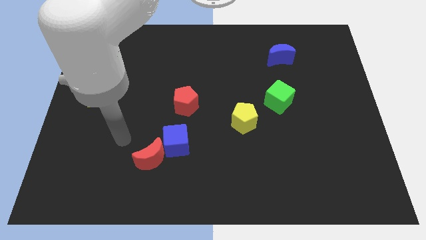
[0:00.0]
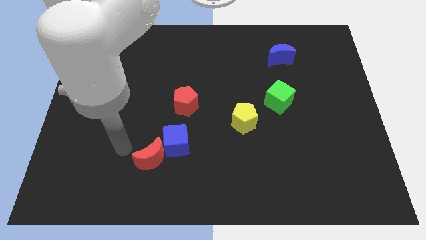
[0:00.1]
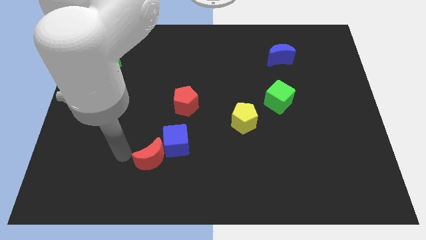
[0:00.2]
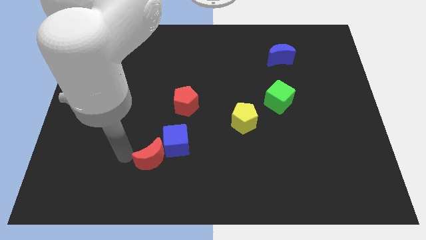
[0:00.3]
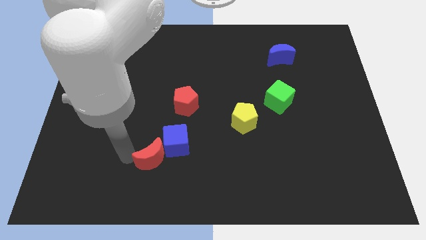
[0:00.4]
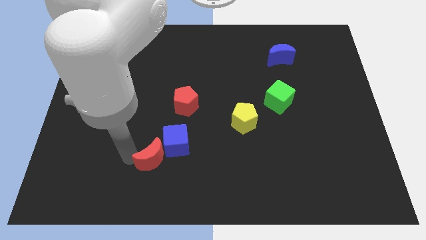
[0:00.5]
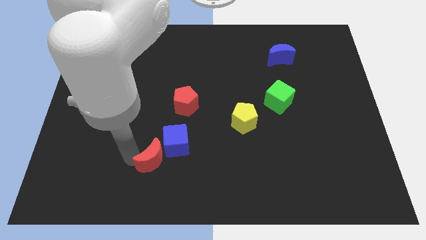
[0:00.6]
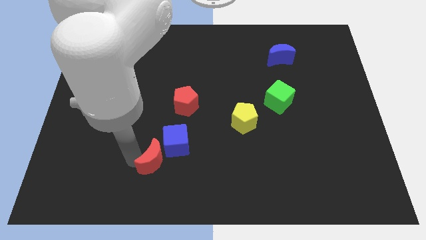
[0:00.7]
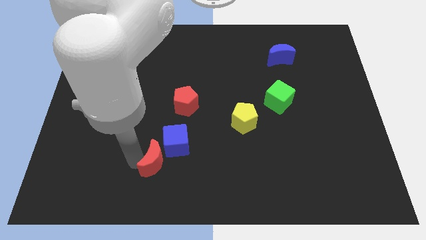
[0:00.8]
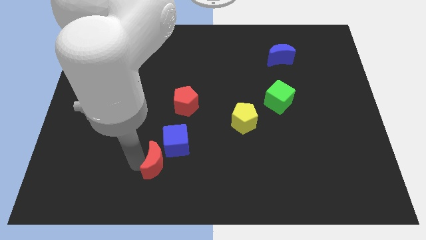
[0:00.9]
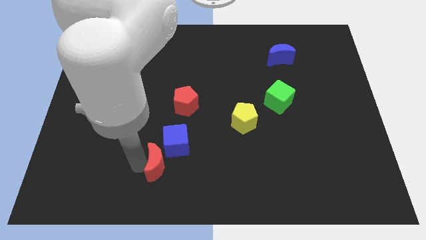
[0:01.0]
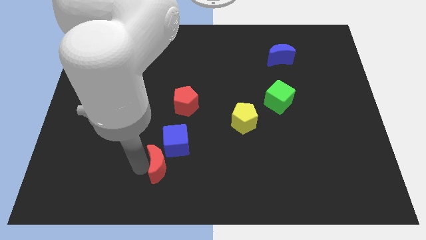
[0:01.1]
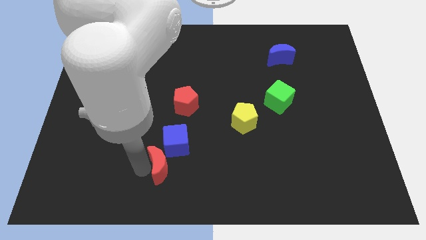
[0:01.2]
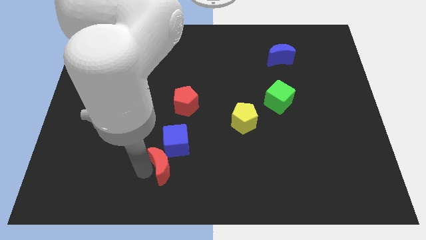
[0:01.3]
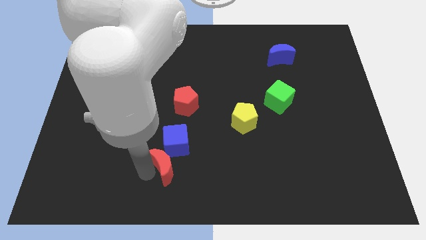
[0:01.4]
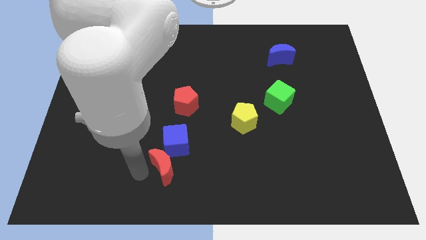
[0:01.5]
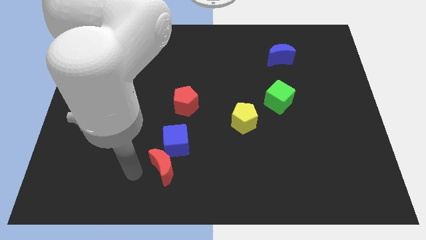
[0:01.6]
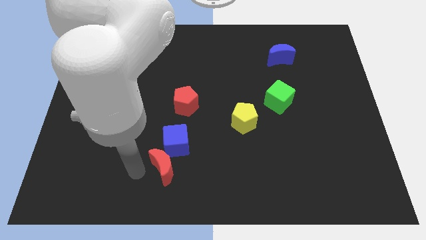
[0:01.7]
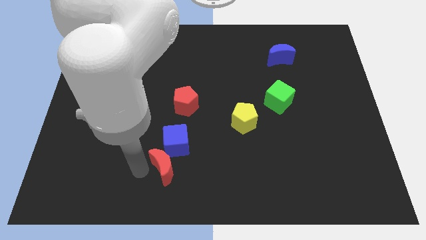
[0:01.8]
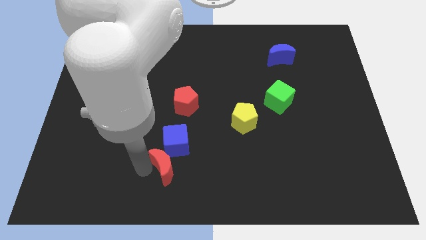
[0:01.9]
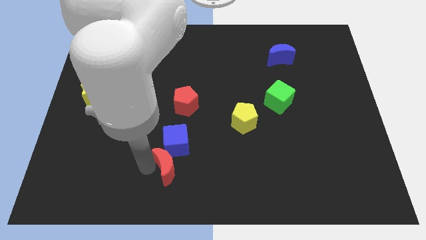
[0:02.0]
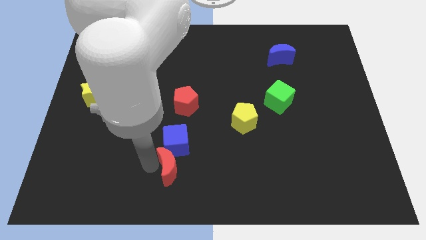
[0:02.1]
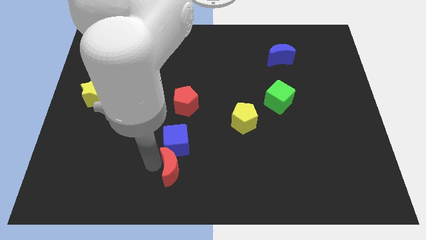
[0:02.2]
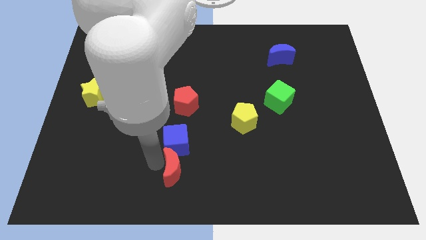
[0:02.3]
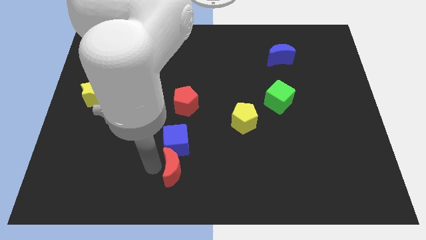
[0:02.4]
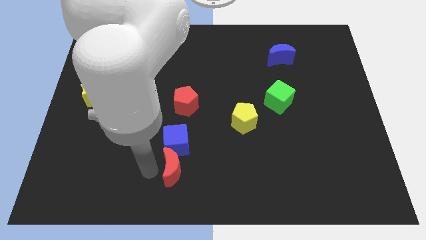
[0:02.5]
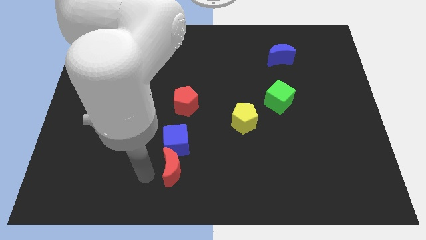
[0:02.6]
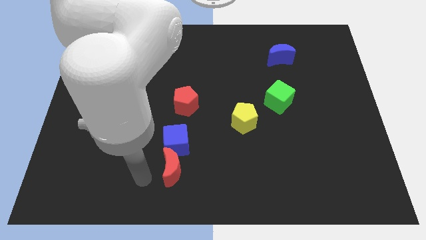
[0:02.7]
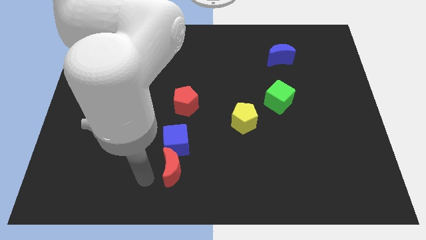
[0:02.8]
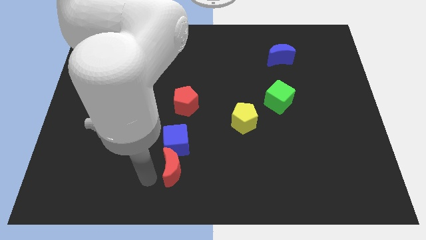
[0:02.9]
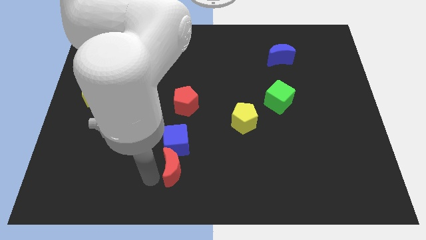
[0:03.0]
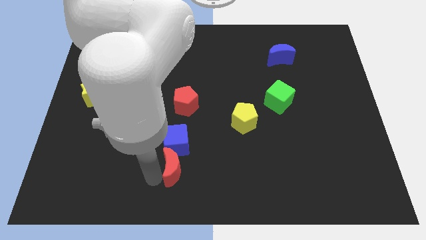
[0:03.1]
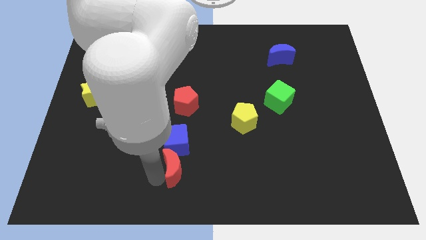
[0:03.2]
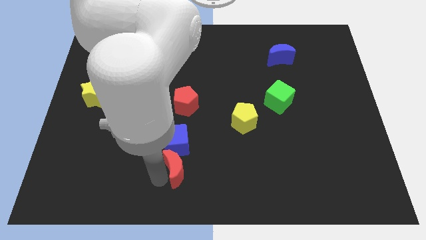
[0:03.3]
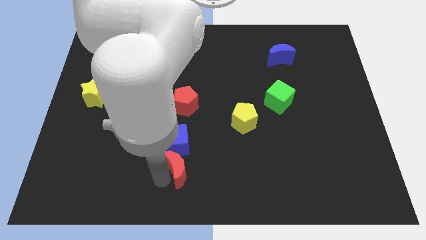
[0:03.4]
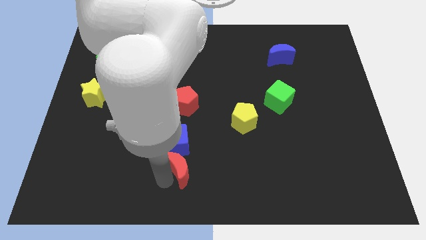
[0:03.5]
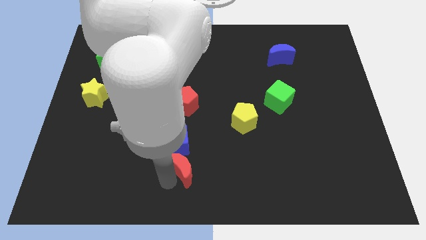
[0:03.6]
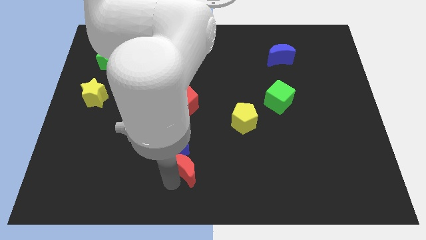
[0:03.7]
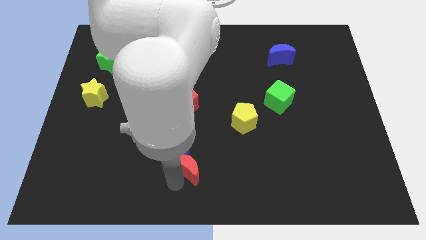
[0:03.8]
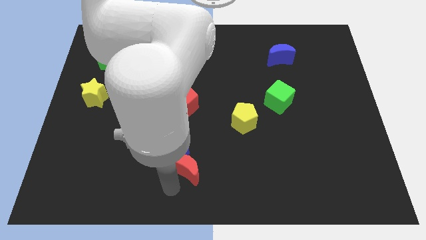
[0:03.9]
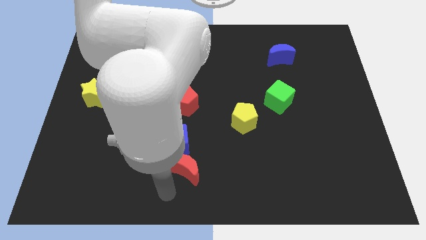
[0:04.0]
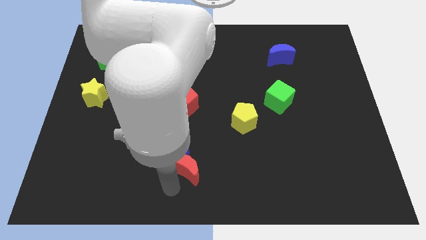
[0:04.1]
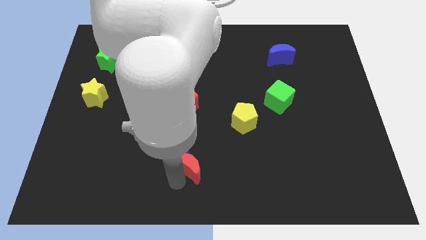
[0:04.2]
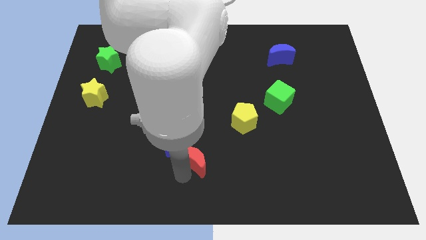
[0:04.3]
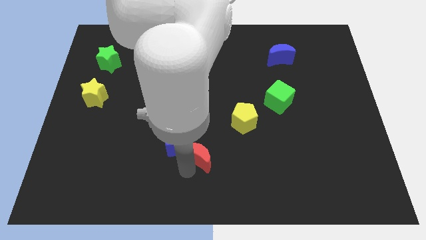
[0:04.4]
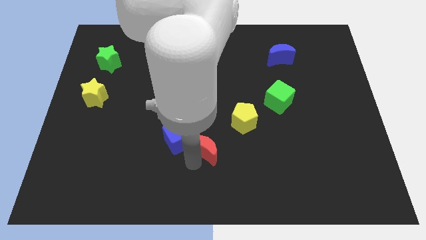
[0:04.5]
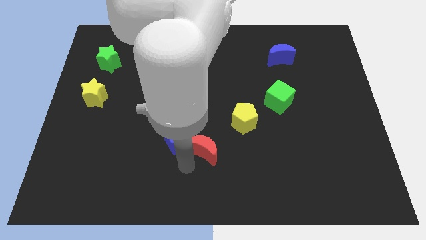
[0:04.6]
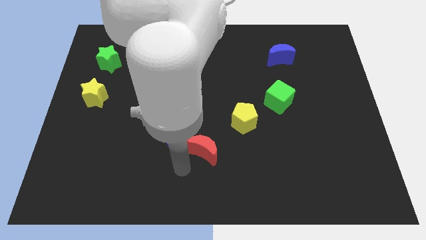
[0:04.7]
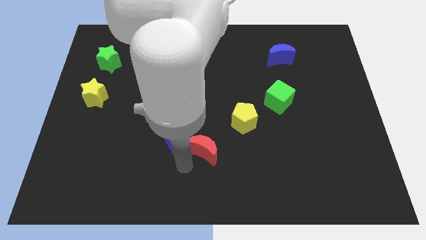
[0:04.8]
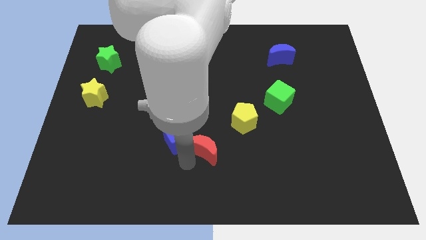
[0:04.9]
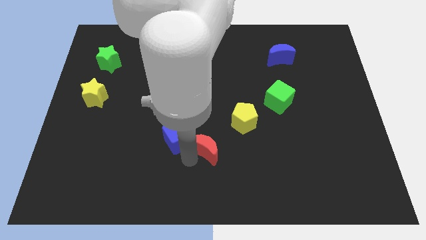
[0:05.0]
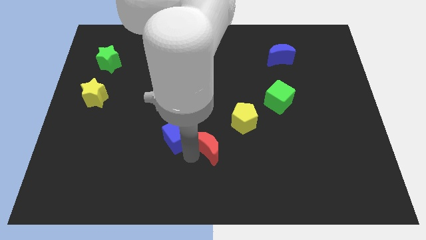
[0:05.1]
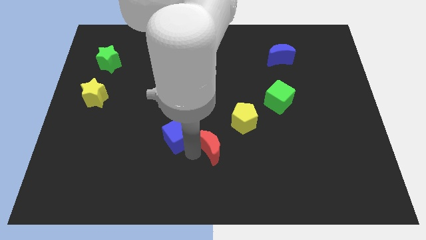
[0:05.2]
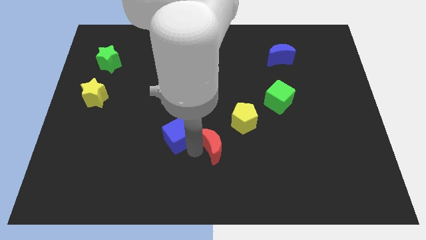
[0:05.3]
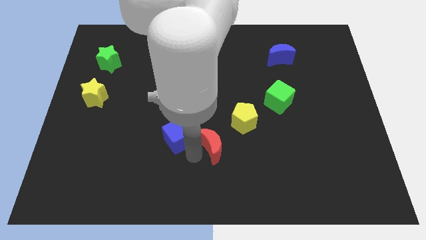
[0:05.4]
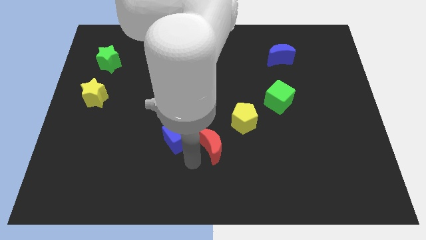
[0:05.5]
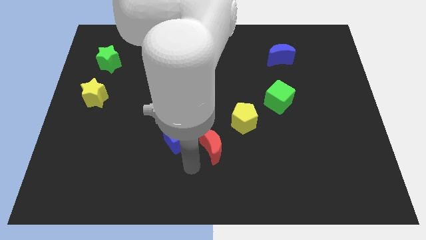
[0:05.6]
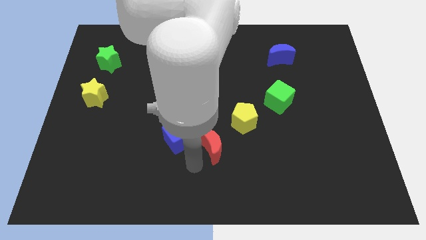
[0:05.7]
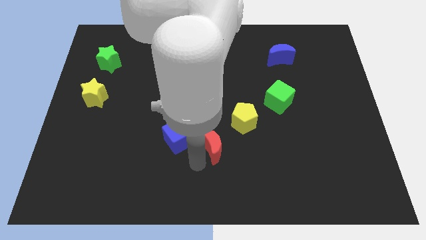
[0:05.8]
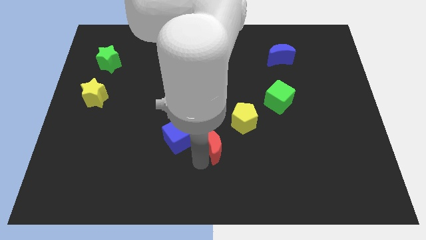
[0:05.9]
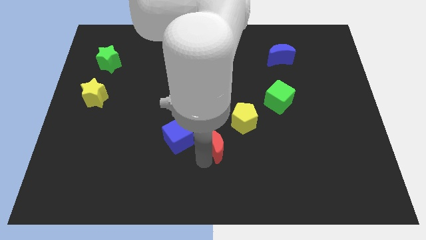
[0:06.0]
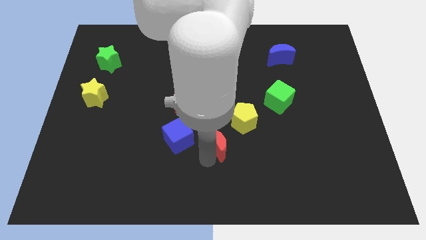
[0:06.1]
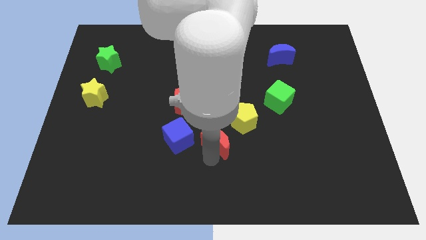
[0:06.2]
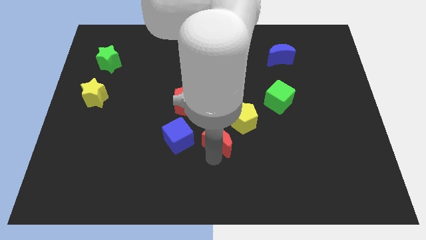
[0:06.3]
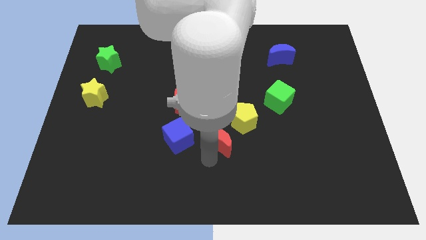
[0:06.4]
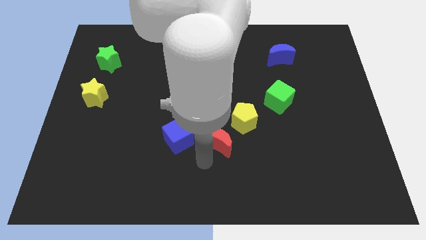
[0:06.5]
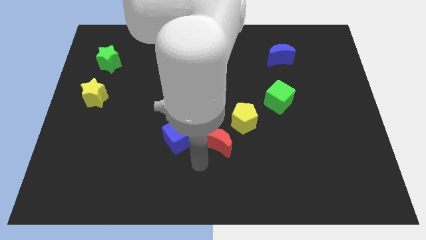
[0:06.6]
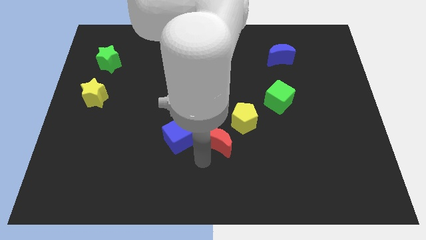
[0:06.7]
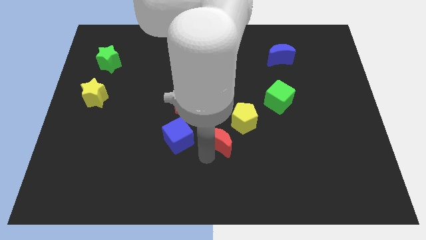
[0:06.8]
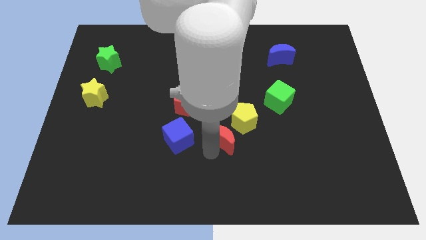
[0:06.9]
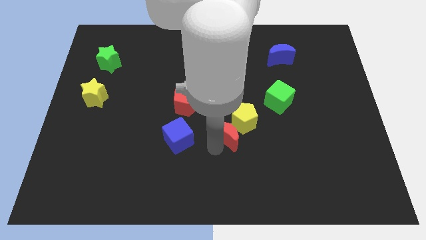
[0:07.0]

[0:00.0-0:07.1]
push the red moon close to the yellow pentagon
